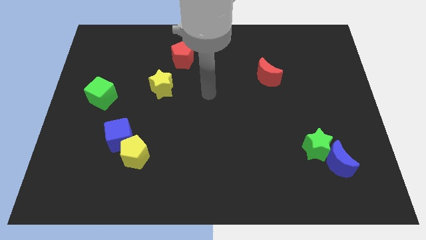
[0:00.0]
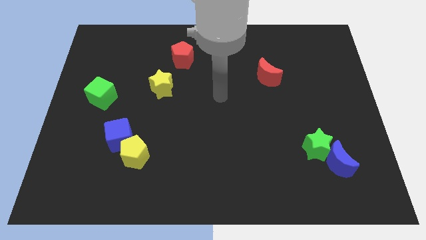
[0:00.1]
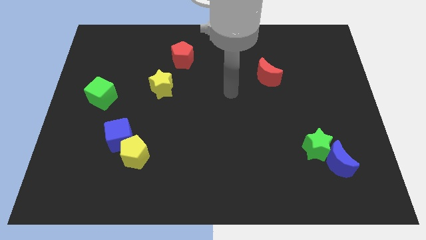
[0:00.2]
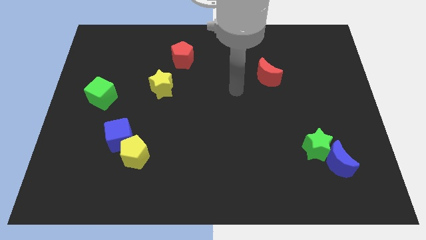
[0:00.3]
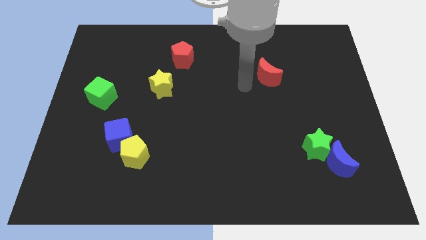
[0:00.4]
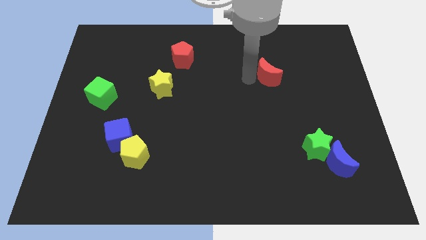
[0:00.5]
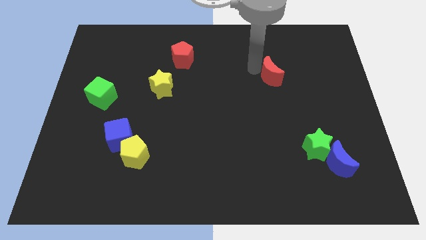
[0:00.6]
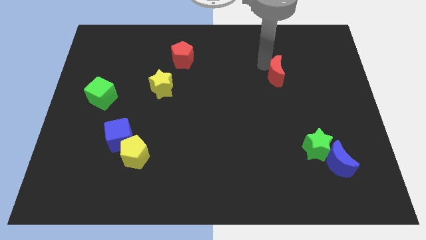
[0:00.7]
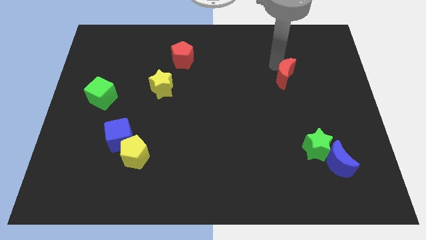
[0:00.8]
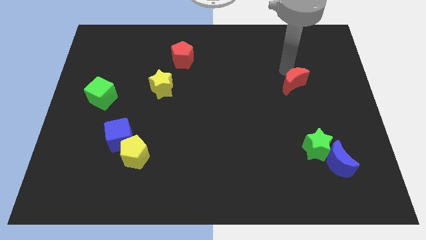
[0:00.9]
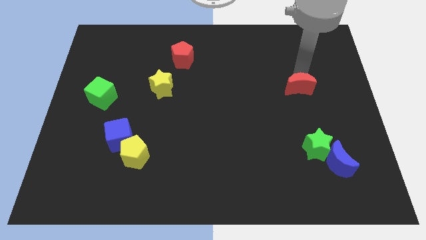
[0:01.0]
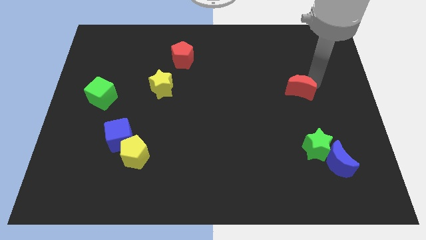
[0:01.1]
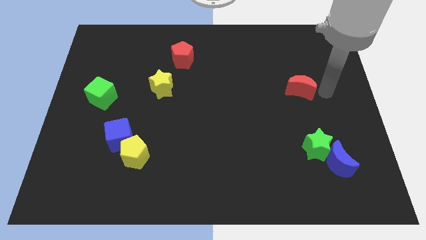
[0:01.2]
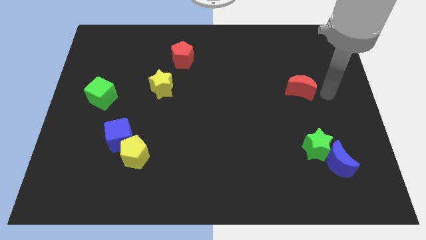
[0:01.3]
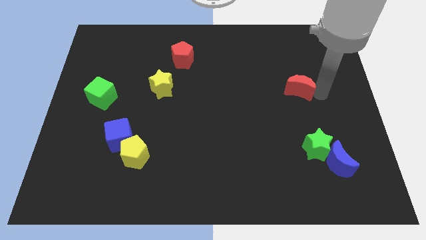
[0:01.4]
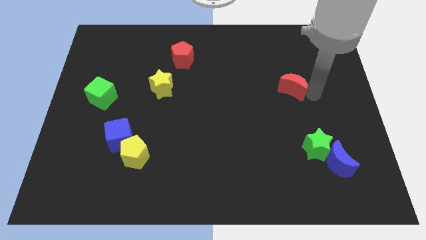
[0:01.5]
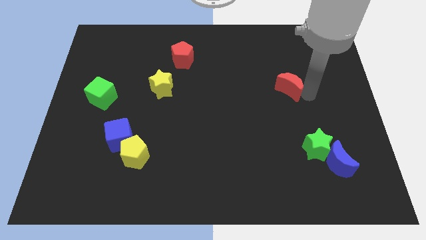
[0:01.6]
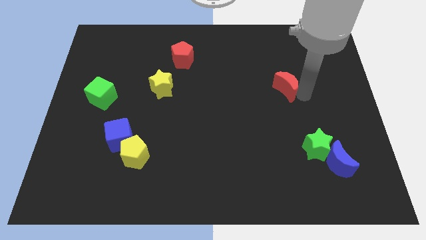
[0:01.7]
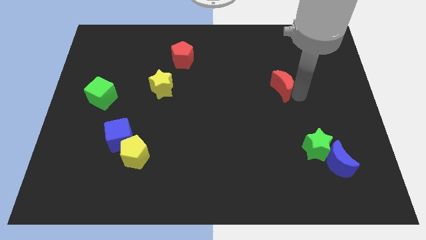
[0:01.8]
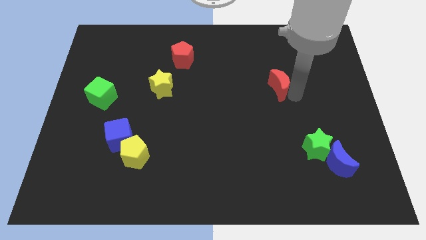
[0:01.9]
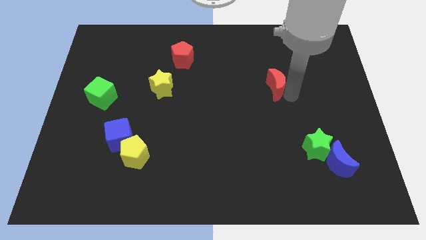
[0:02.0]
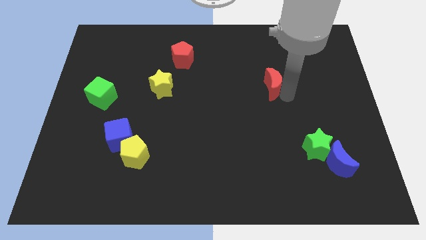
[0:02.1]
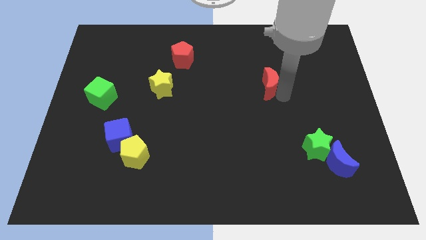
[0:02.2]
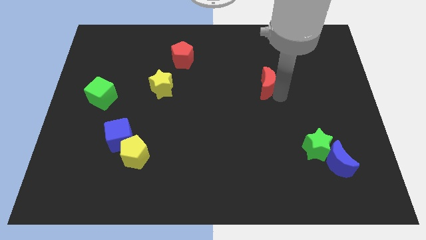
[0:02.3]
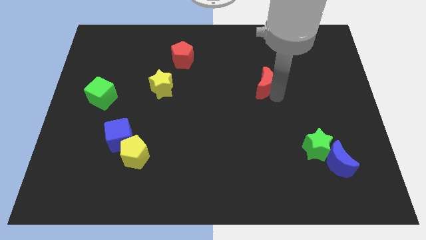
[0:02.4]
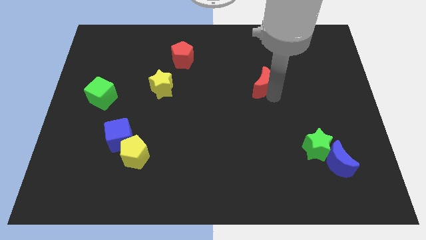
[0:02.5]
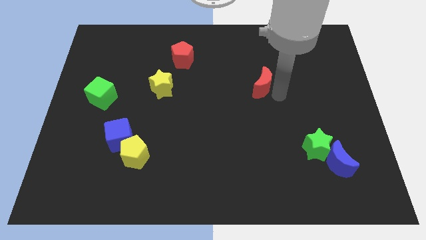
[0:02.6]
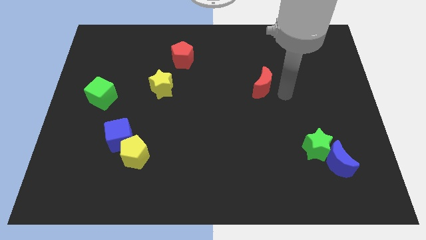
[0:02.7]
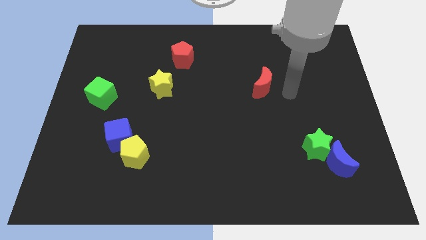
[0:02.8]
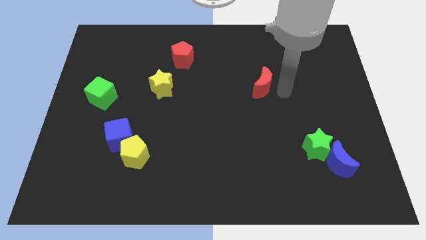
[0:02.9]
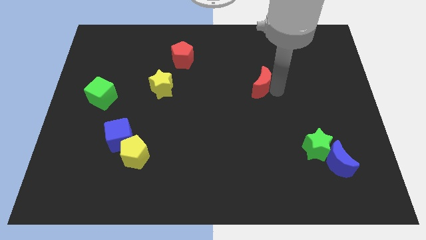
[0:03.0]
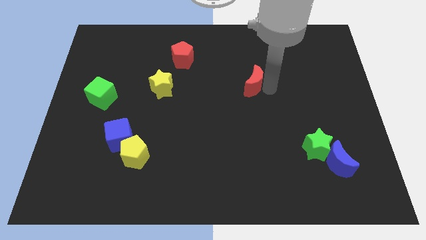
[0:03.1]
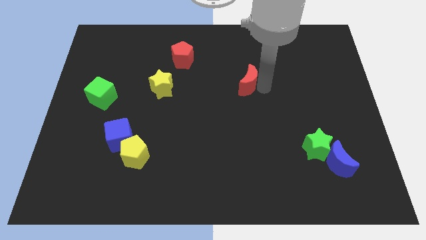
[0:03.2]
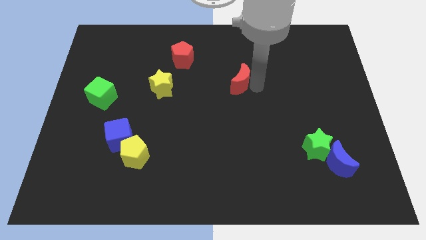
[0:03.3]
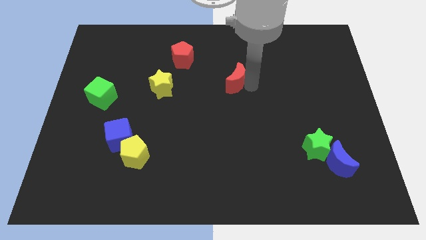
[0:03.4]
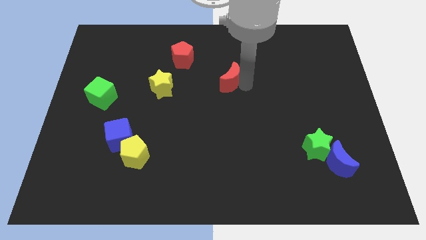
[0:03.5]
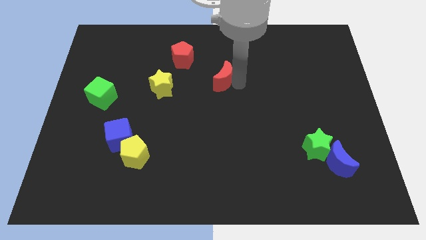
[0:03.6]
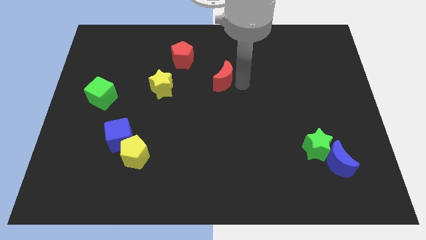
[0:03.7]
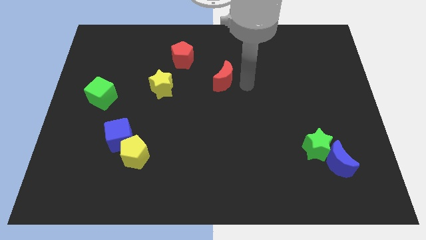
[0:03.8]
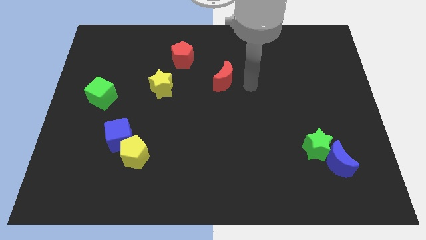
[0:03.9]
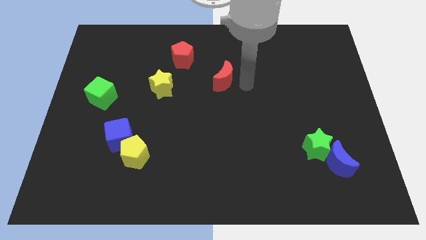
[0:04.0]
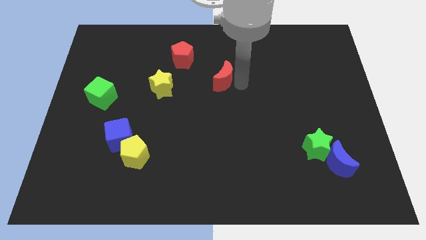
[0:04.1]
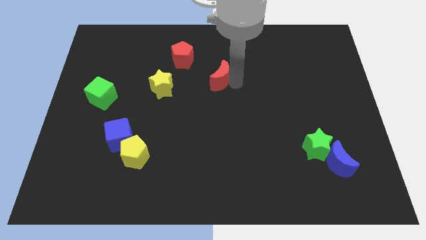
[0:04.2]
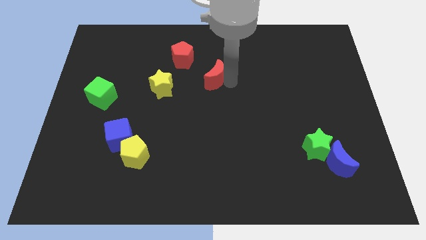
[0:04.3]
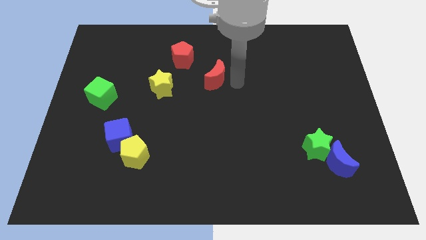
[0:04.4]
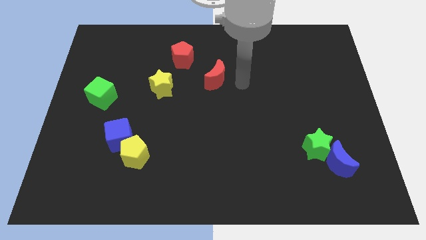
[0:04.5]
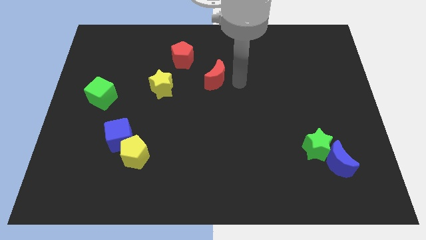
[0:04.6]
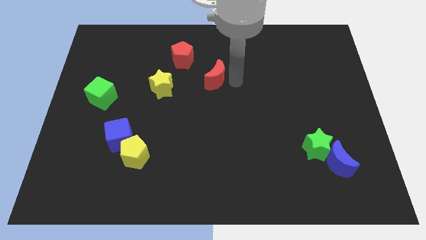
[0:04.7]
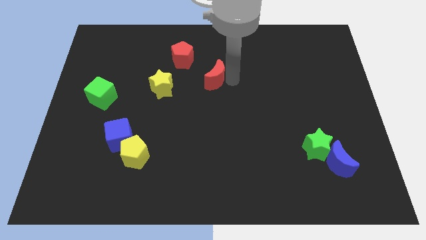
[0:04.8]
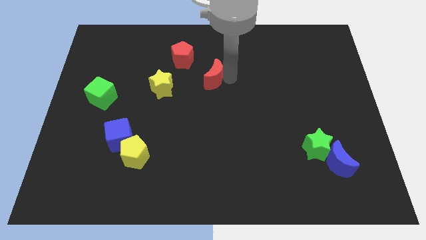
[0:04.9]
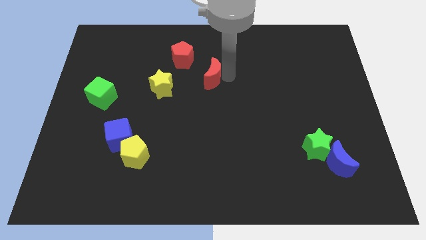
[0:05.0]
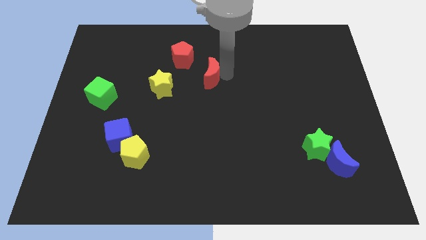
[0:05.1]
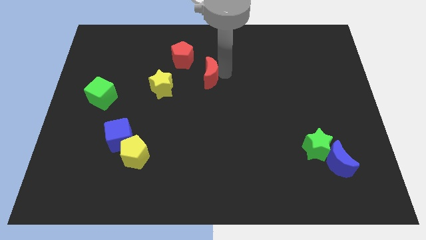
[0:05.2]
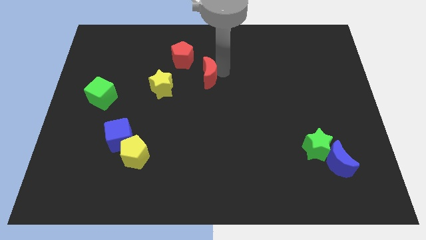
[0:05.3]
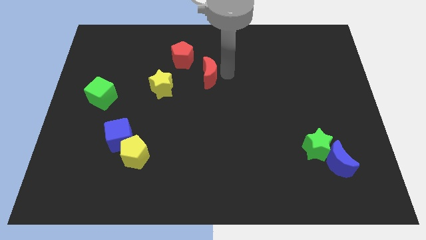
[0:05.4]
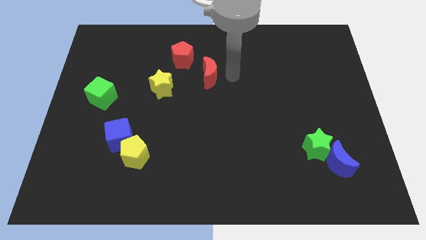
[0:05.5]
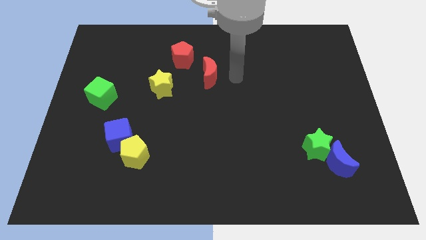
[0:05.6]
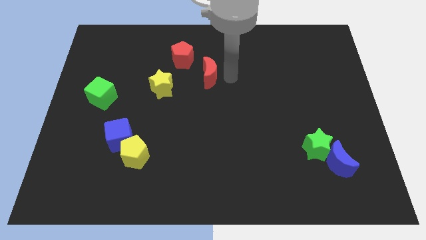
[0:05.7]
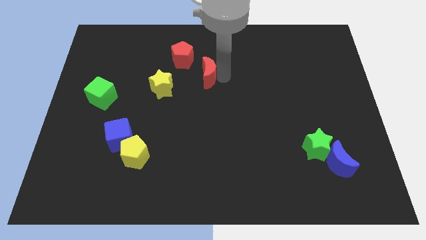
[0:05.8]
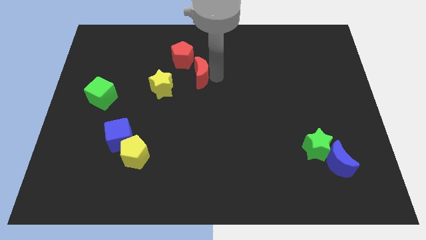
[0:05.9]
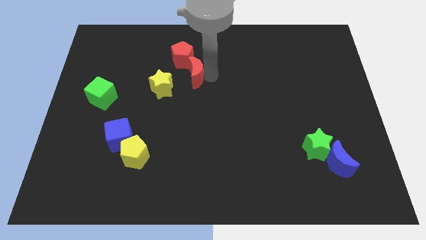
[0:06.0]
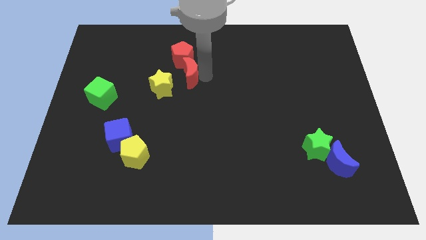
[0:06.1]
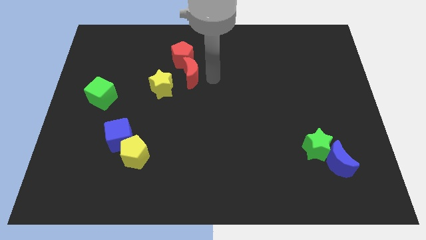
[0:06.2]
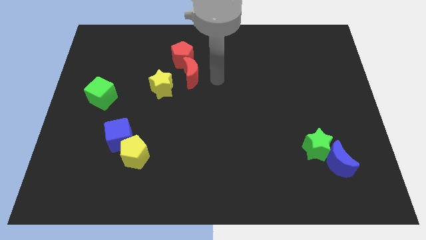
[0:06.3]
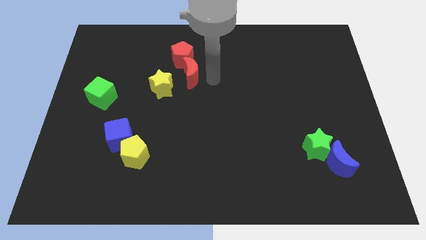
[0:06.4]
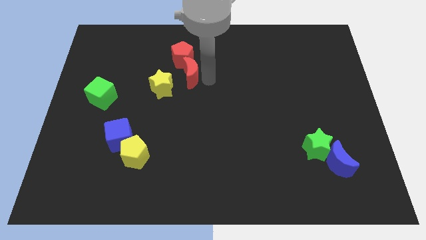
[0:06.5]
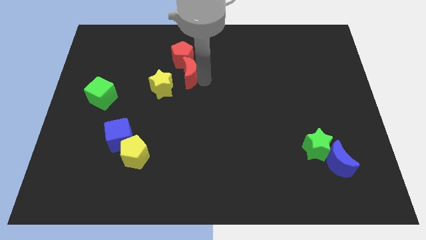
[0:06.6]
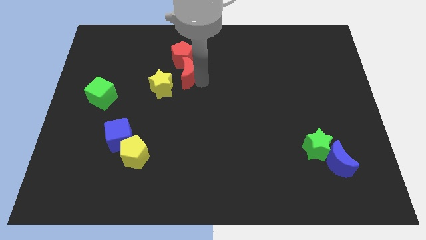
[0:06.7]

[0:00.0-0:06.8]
slide the red moon to the left

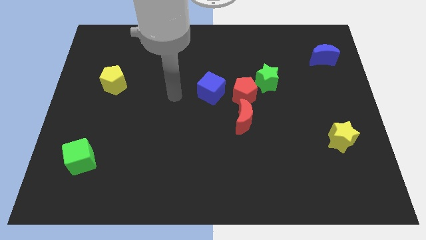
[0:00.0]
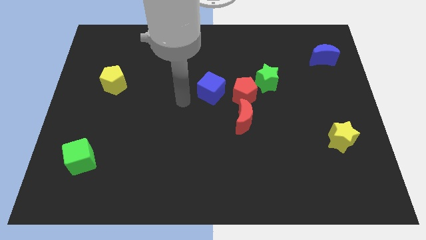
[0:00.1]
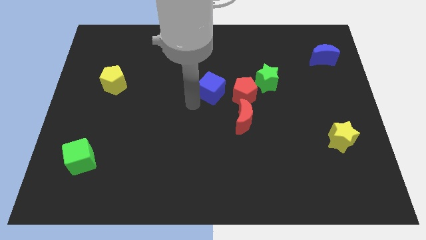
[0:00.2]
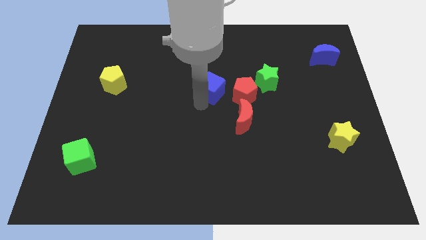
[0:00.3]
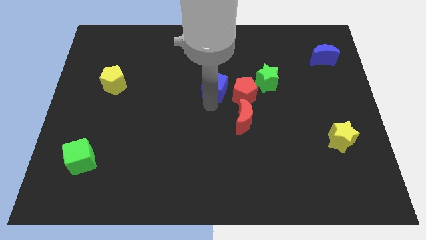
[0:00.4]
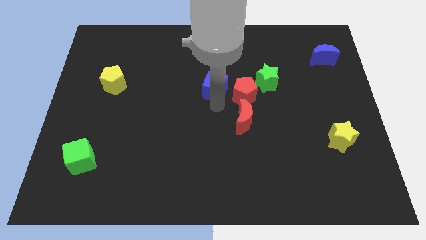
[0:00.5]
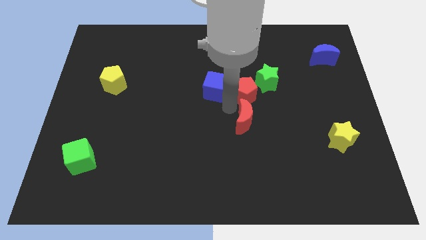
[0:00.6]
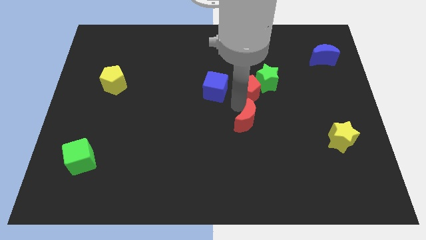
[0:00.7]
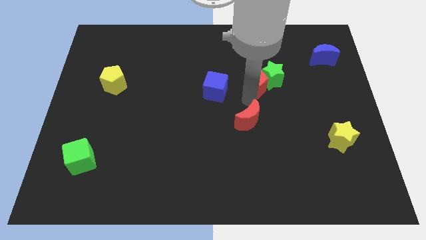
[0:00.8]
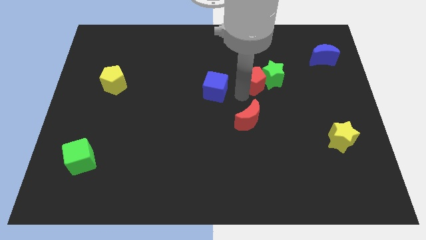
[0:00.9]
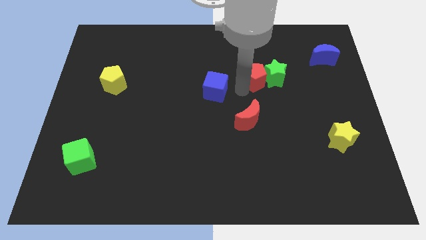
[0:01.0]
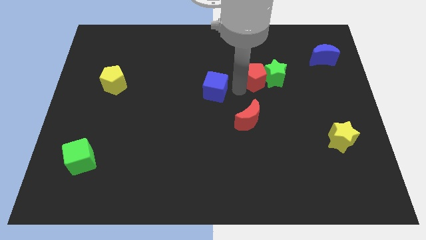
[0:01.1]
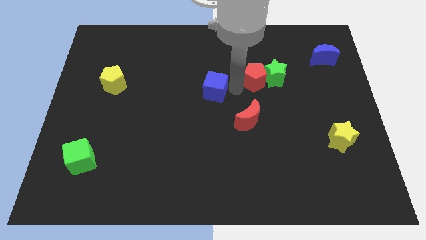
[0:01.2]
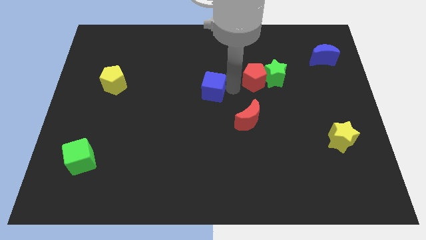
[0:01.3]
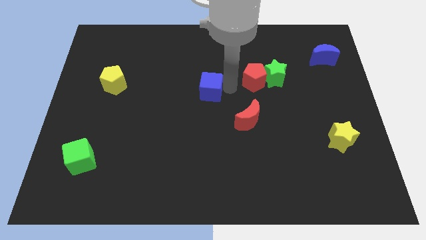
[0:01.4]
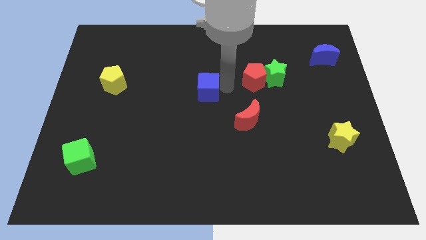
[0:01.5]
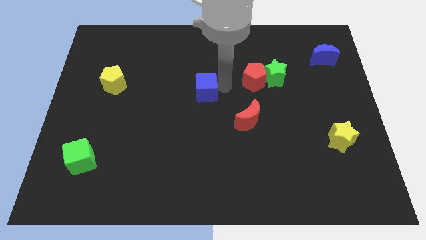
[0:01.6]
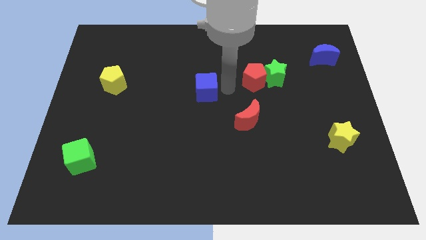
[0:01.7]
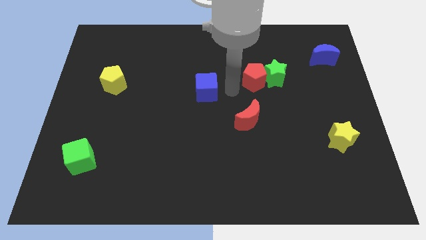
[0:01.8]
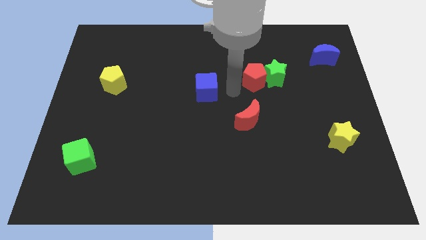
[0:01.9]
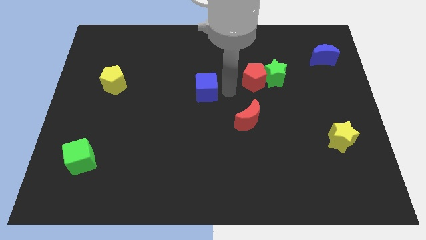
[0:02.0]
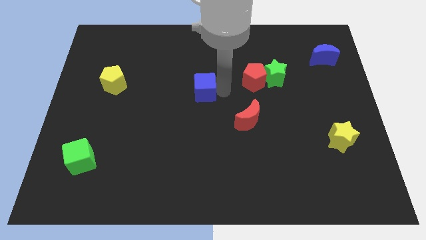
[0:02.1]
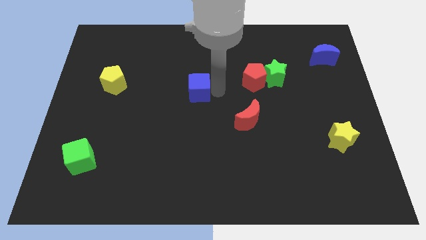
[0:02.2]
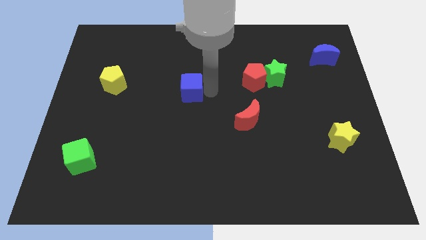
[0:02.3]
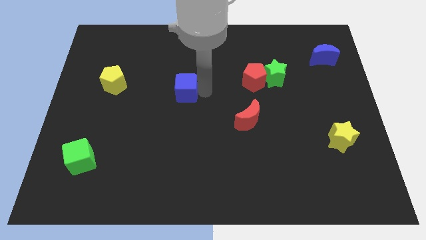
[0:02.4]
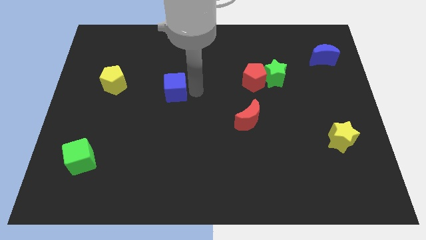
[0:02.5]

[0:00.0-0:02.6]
slightly push the blue cube to the left
